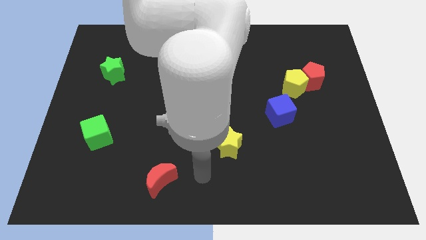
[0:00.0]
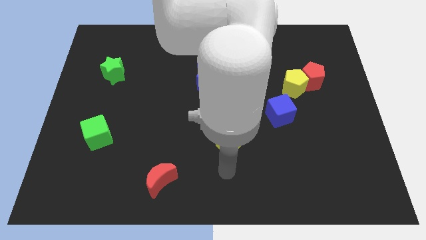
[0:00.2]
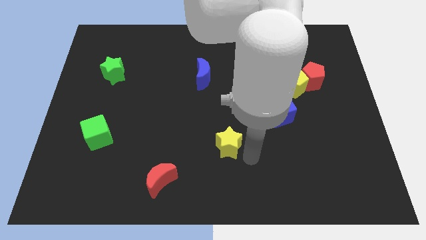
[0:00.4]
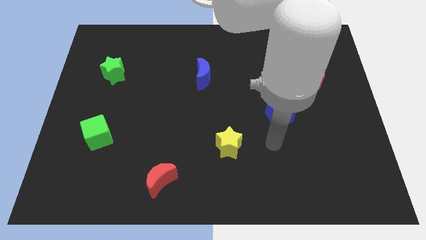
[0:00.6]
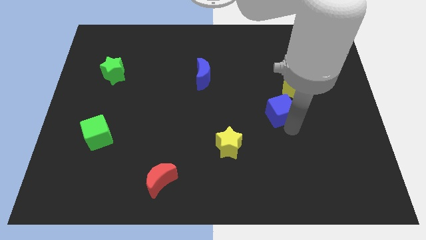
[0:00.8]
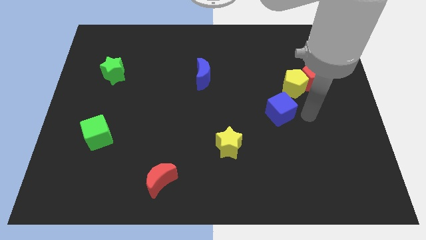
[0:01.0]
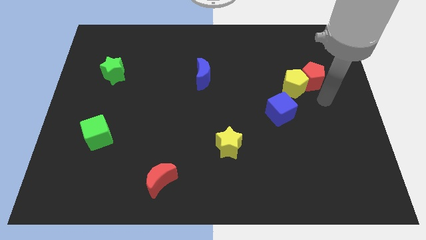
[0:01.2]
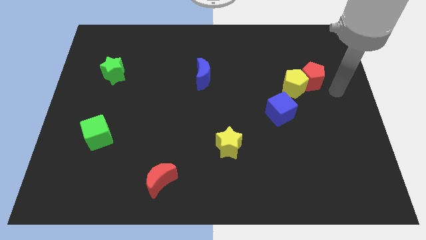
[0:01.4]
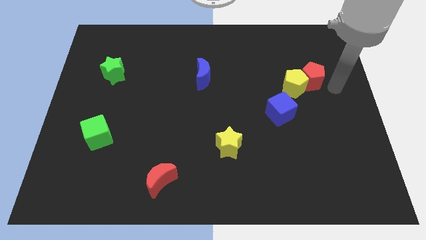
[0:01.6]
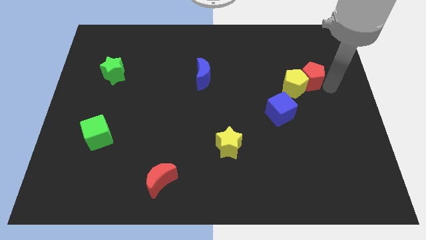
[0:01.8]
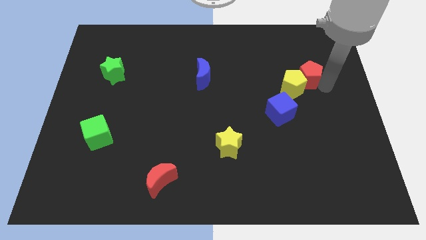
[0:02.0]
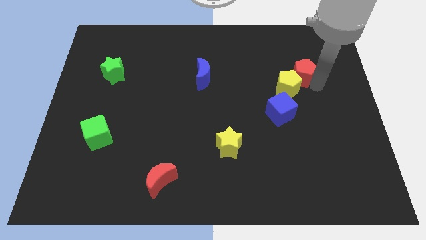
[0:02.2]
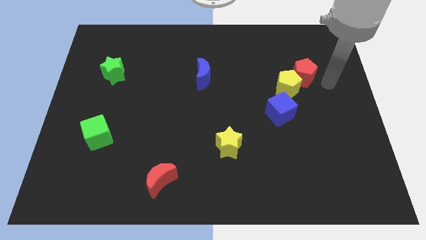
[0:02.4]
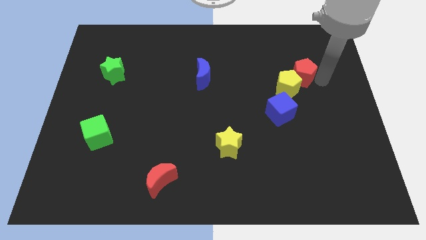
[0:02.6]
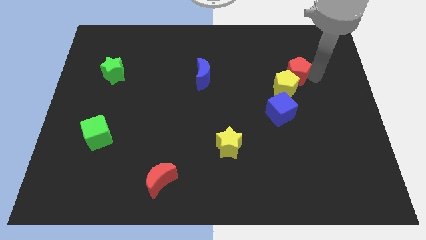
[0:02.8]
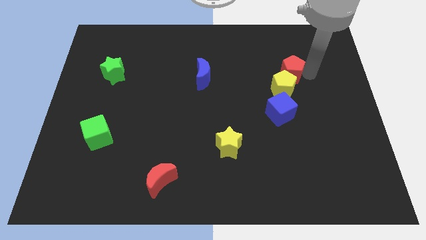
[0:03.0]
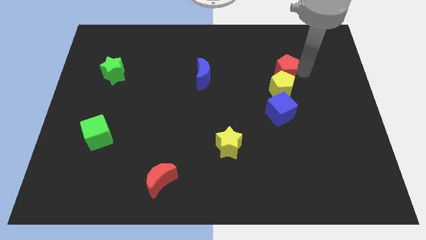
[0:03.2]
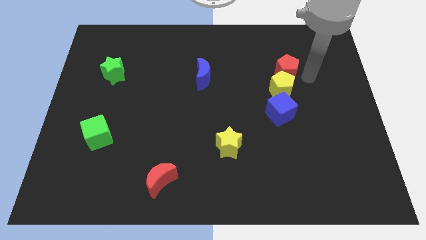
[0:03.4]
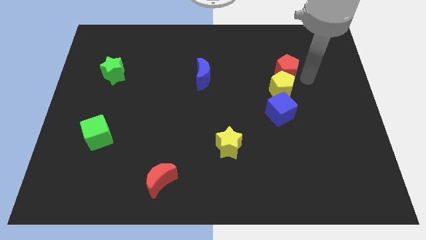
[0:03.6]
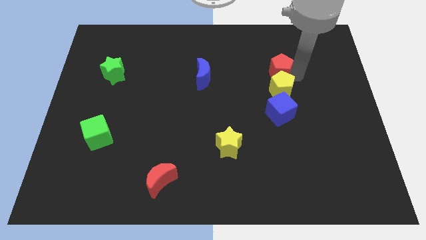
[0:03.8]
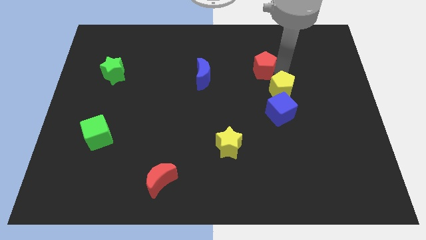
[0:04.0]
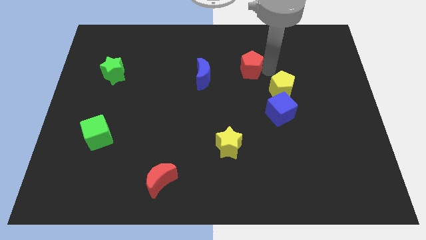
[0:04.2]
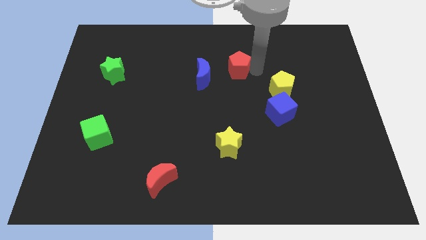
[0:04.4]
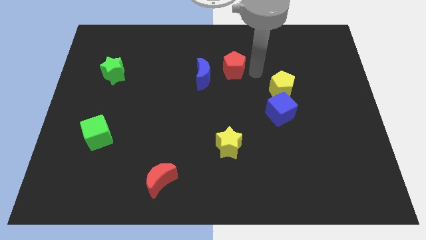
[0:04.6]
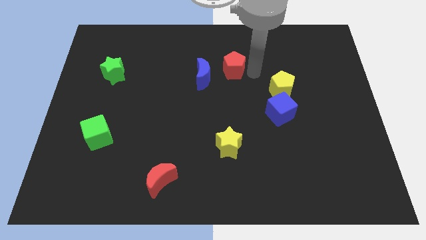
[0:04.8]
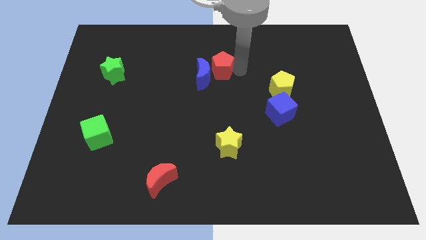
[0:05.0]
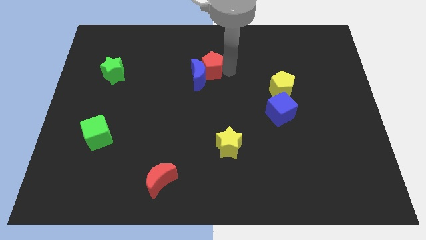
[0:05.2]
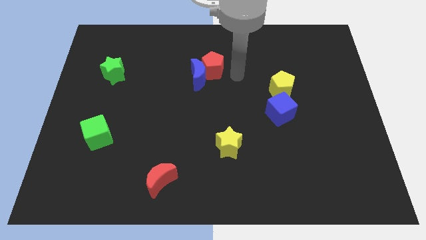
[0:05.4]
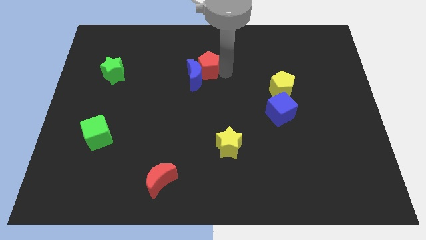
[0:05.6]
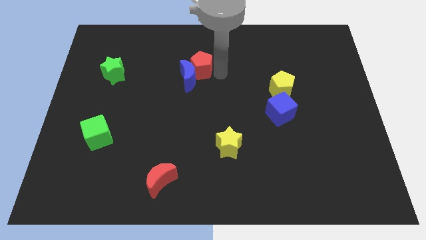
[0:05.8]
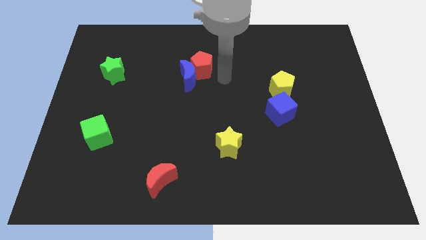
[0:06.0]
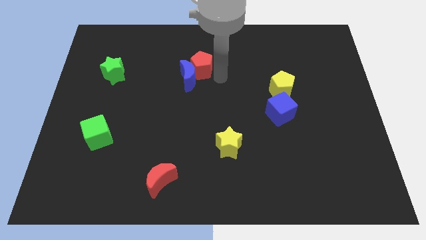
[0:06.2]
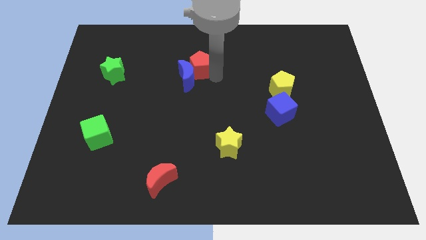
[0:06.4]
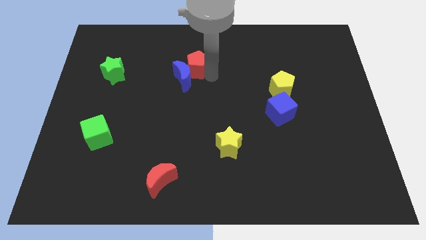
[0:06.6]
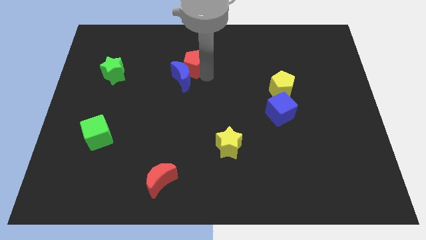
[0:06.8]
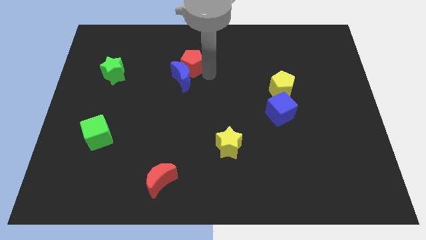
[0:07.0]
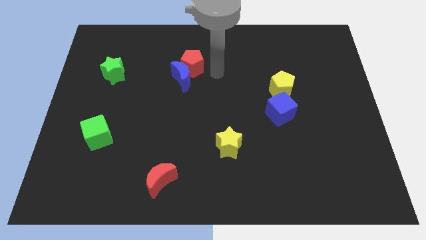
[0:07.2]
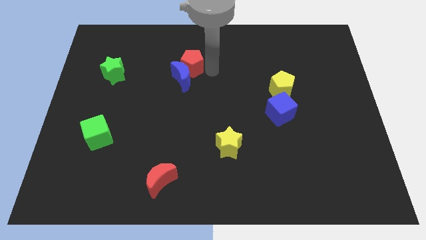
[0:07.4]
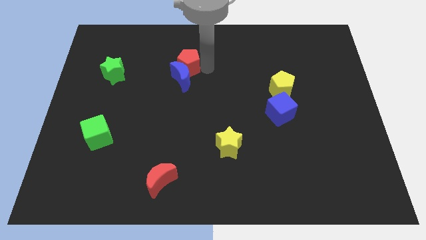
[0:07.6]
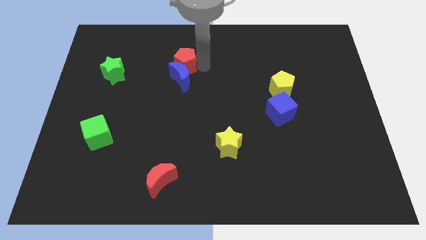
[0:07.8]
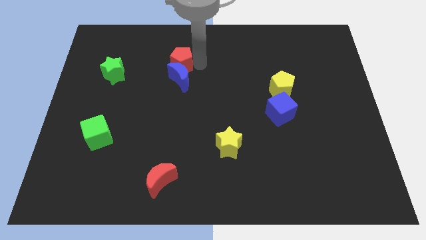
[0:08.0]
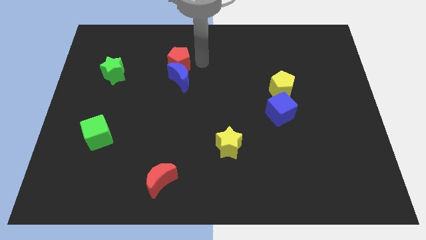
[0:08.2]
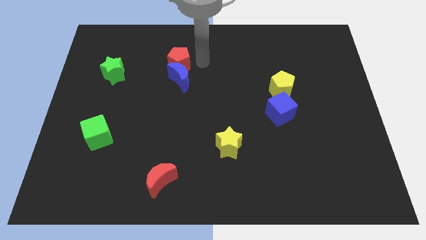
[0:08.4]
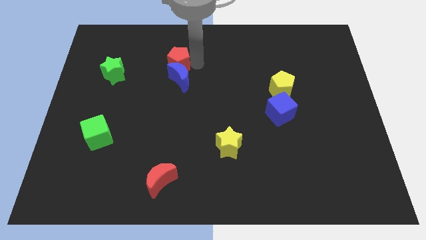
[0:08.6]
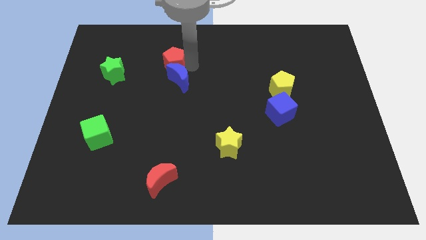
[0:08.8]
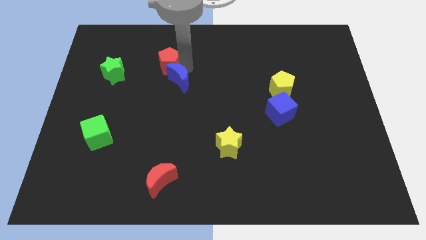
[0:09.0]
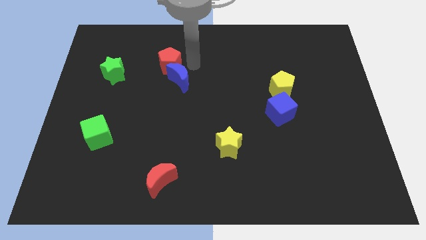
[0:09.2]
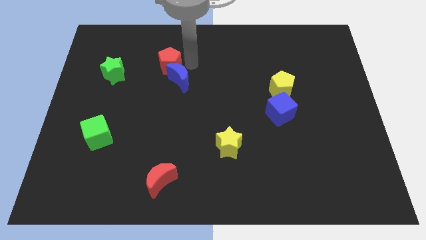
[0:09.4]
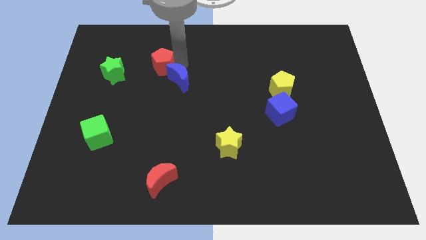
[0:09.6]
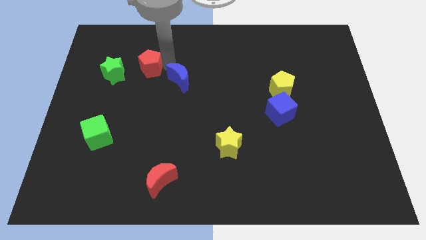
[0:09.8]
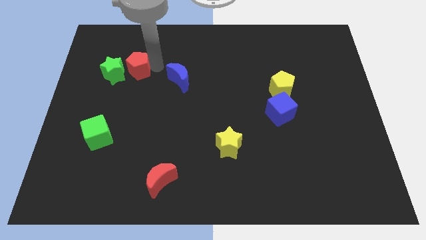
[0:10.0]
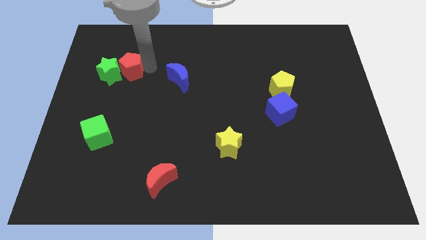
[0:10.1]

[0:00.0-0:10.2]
push the red pentagon next to the green star

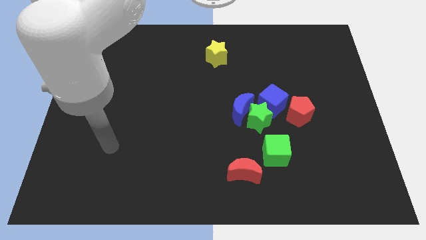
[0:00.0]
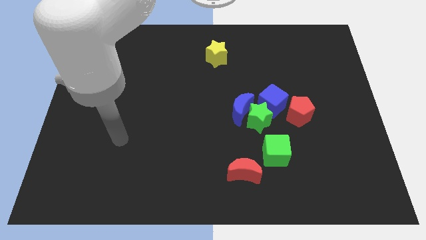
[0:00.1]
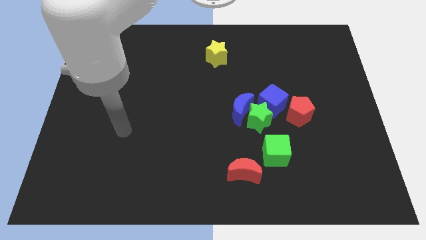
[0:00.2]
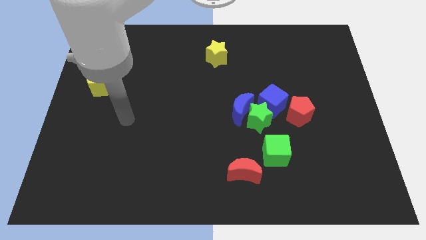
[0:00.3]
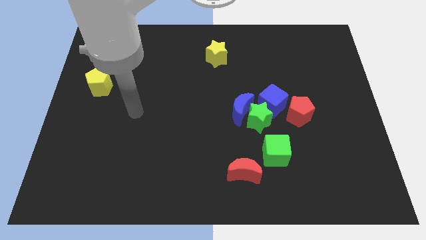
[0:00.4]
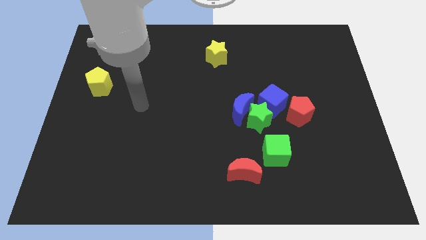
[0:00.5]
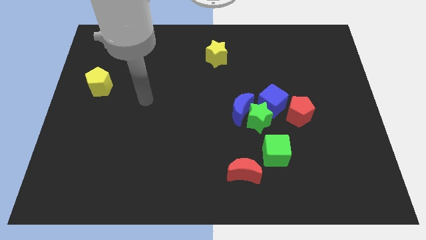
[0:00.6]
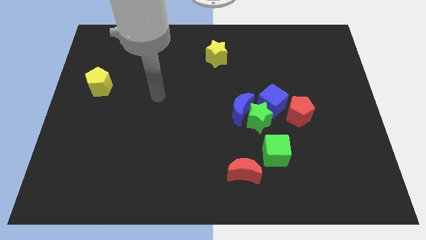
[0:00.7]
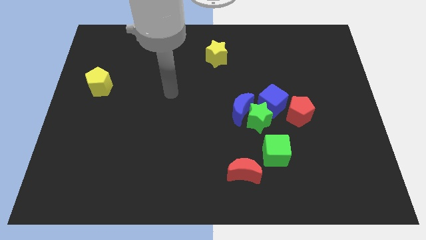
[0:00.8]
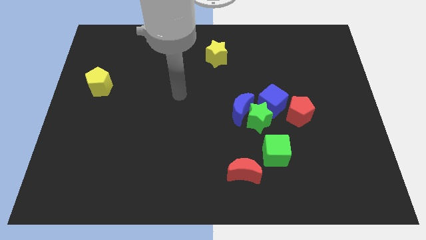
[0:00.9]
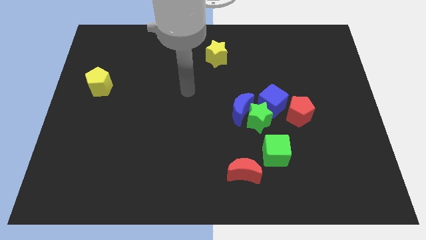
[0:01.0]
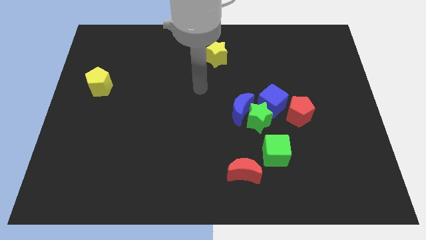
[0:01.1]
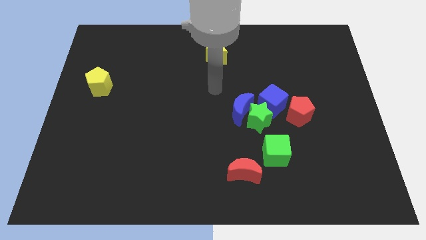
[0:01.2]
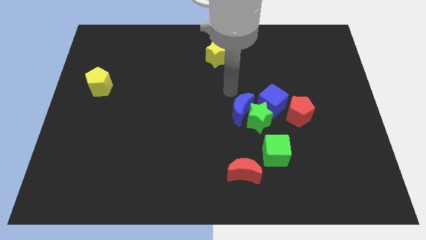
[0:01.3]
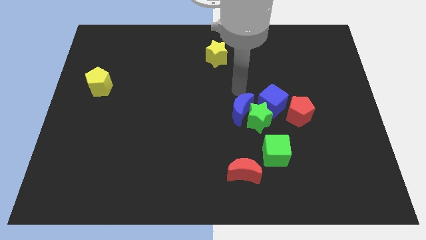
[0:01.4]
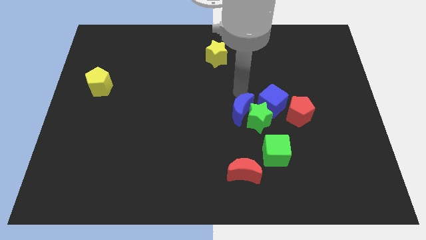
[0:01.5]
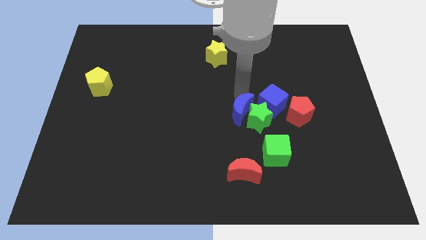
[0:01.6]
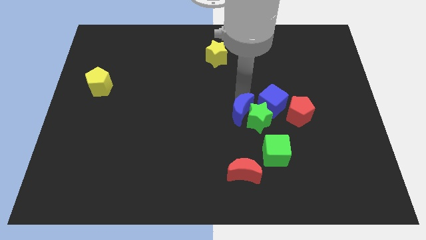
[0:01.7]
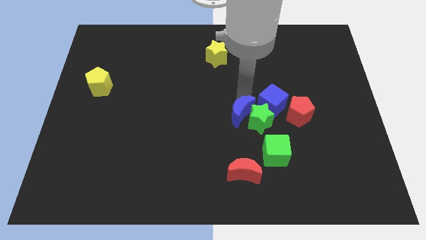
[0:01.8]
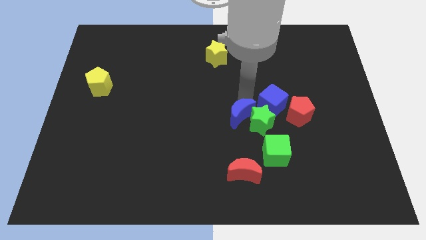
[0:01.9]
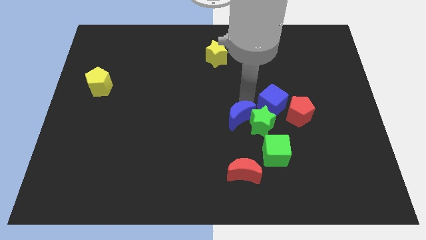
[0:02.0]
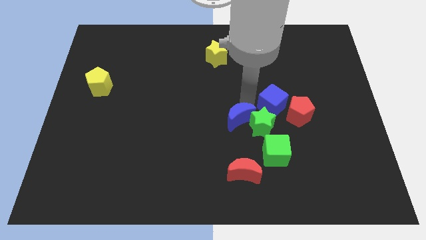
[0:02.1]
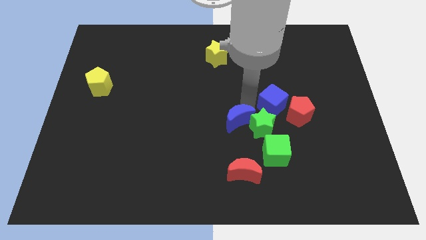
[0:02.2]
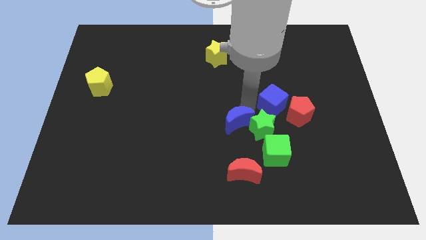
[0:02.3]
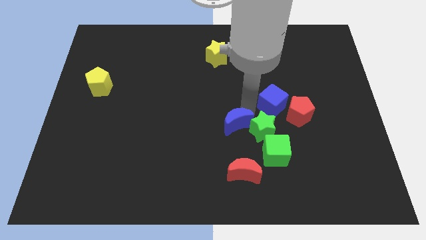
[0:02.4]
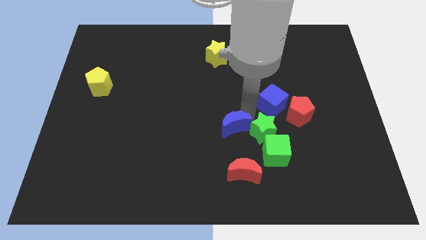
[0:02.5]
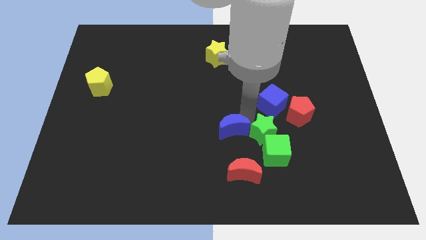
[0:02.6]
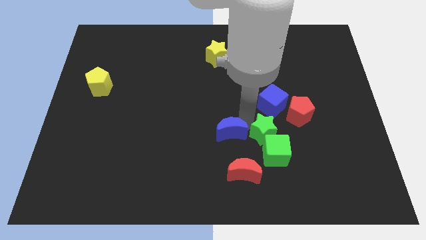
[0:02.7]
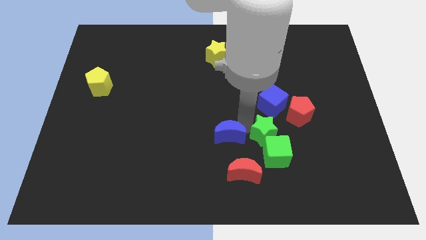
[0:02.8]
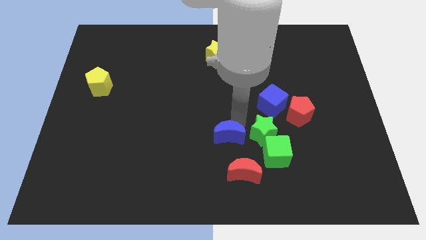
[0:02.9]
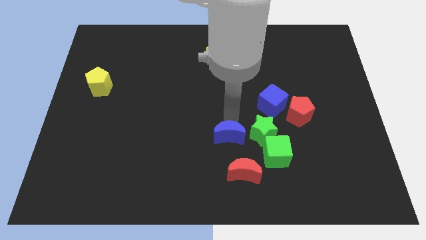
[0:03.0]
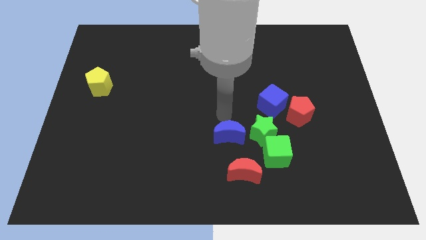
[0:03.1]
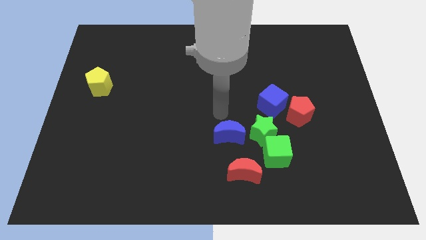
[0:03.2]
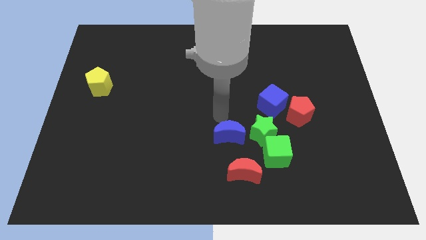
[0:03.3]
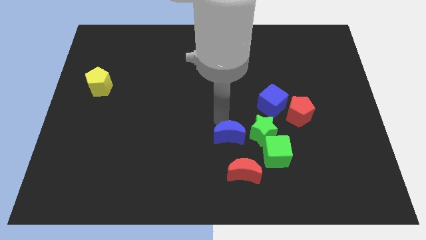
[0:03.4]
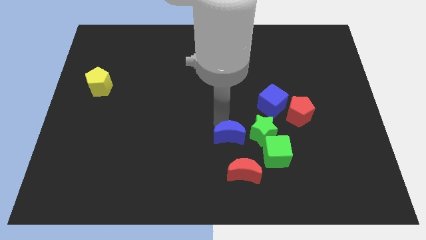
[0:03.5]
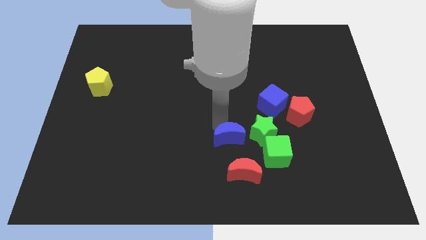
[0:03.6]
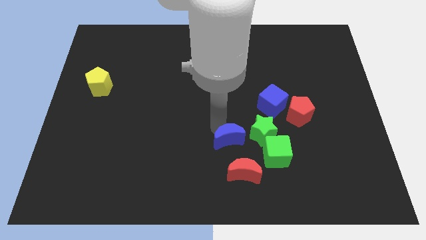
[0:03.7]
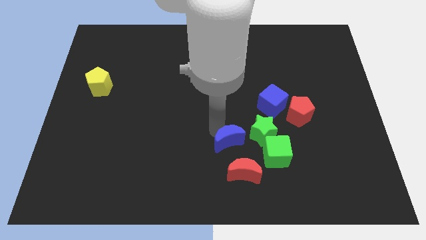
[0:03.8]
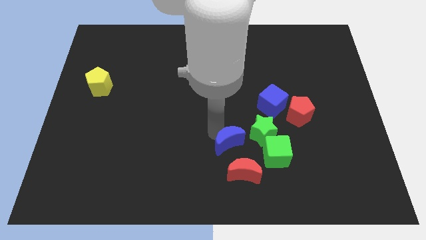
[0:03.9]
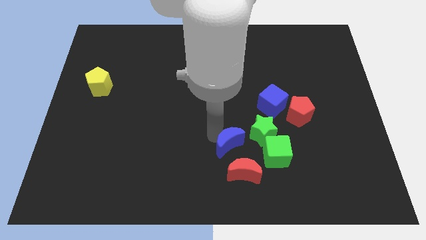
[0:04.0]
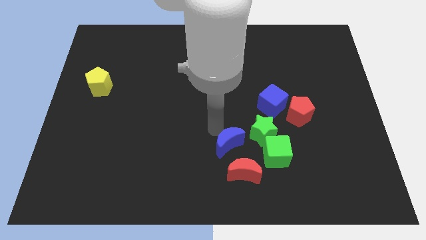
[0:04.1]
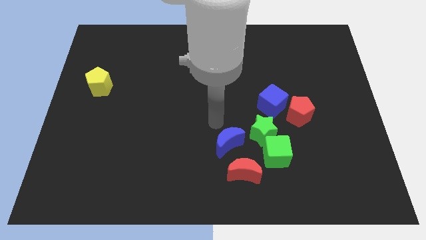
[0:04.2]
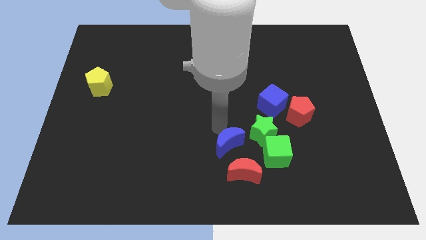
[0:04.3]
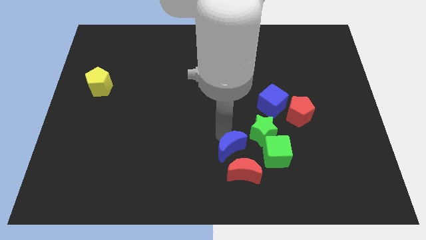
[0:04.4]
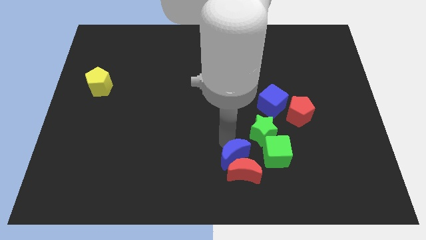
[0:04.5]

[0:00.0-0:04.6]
push the blue moon close to the red moon
